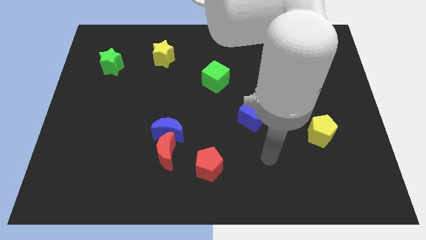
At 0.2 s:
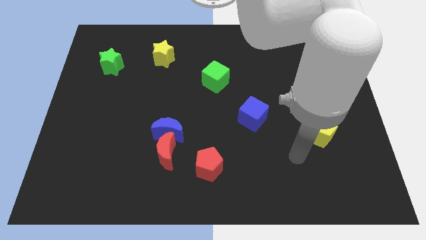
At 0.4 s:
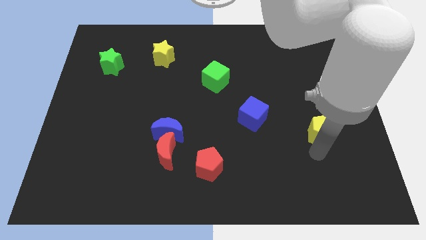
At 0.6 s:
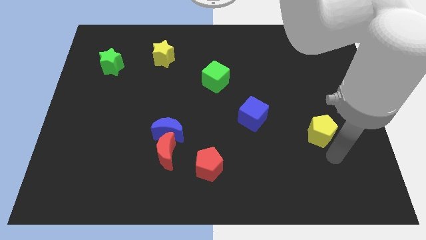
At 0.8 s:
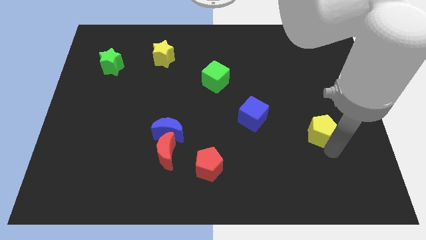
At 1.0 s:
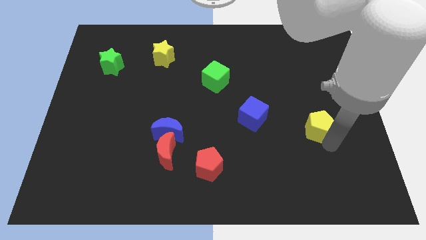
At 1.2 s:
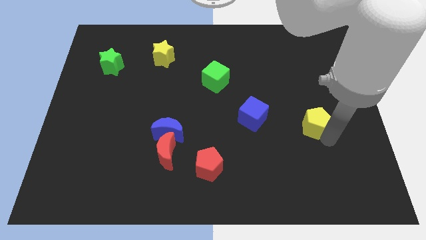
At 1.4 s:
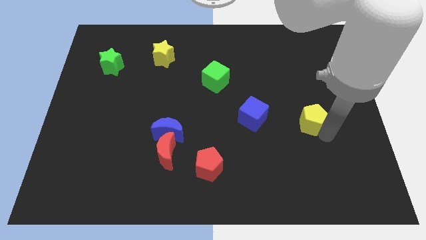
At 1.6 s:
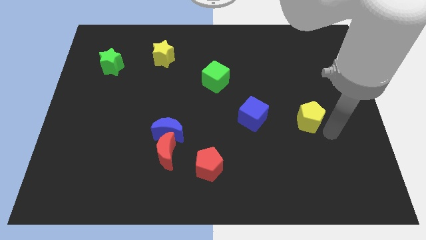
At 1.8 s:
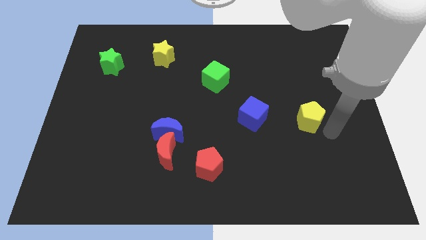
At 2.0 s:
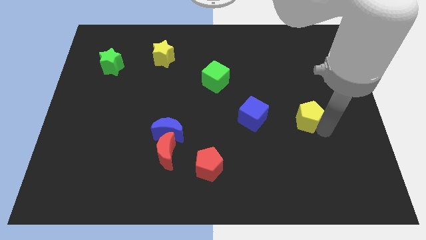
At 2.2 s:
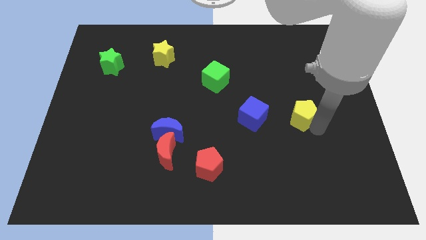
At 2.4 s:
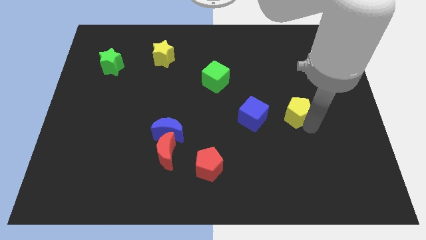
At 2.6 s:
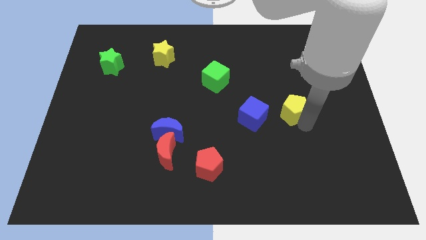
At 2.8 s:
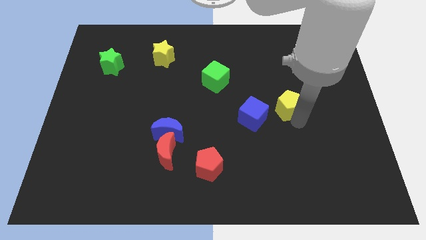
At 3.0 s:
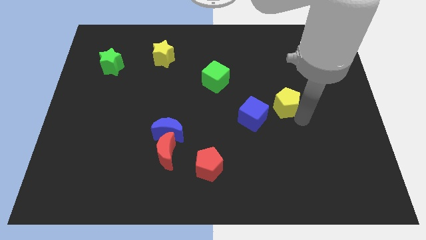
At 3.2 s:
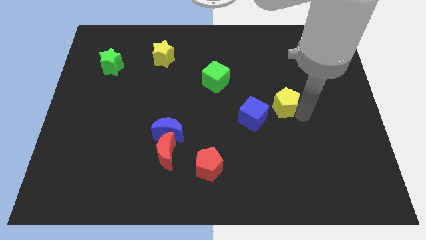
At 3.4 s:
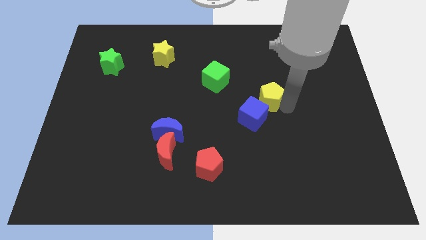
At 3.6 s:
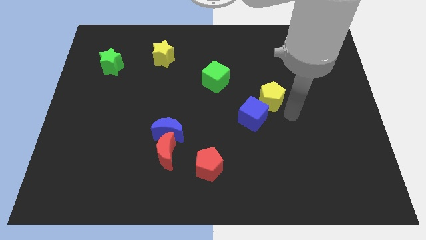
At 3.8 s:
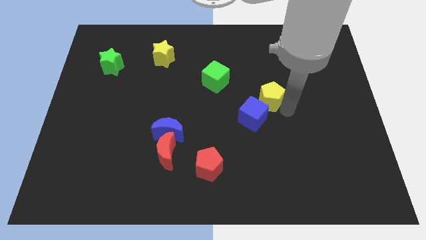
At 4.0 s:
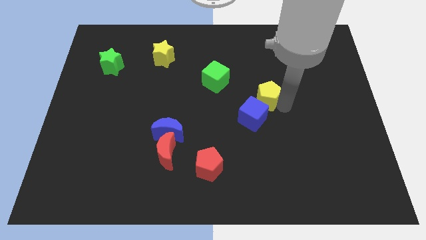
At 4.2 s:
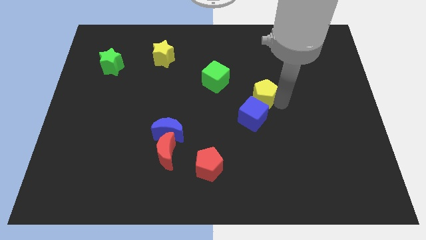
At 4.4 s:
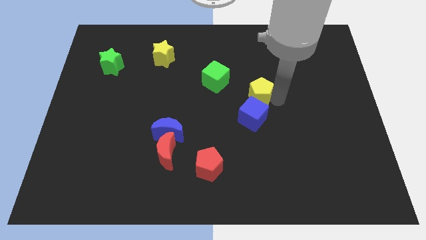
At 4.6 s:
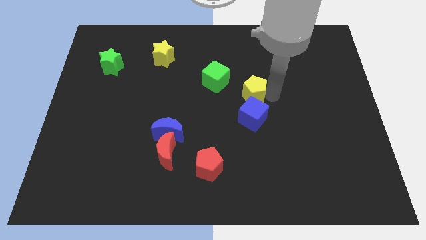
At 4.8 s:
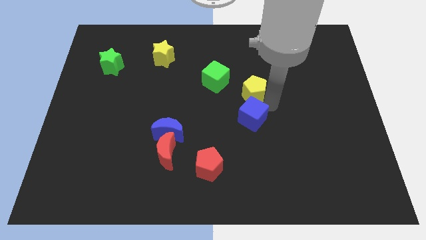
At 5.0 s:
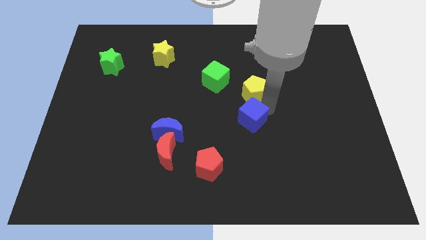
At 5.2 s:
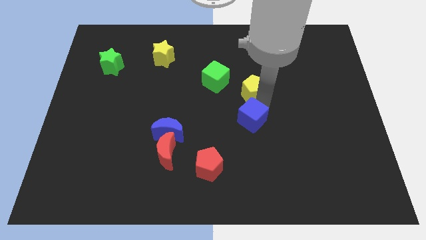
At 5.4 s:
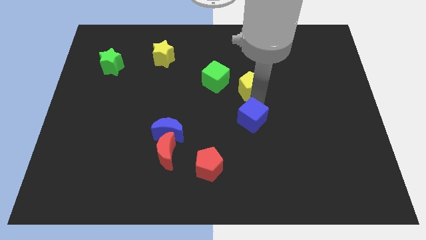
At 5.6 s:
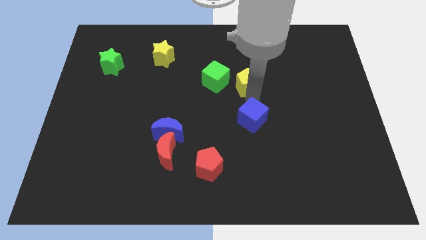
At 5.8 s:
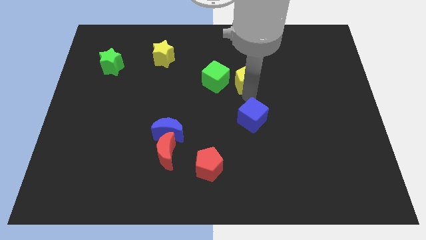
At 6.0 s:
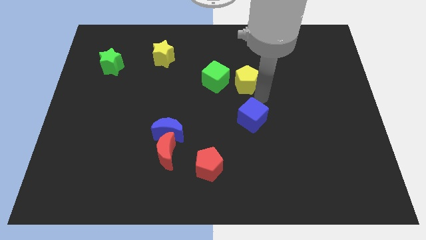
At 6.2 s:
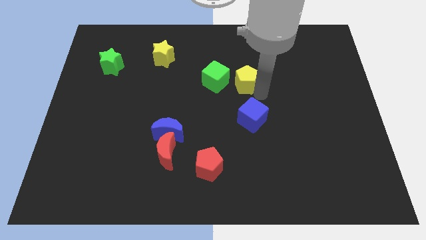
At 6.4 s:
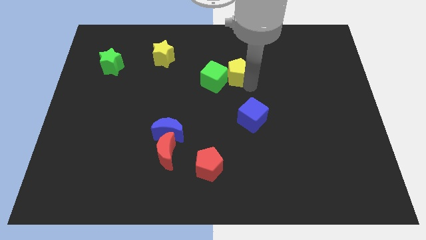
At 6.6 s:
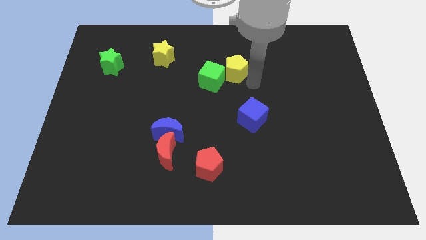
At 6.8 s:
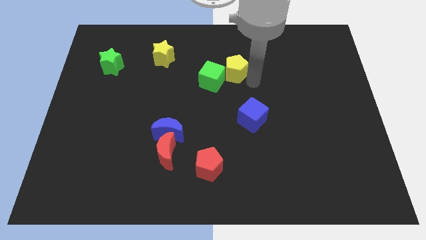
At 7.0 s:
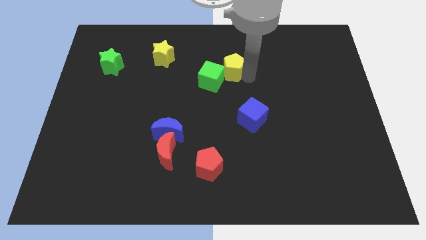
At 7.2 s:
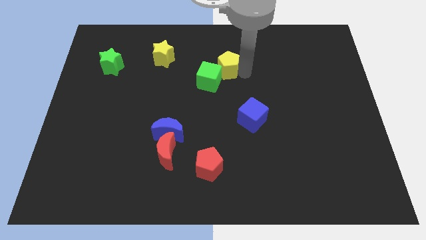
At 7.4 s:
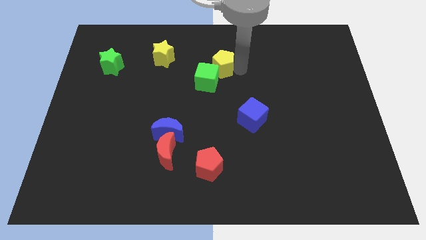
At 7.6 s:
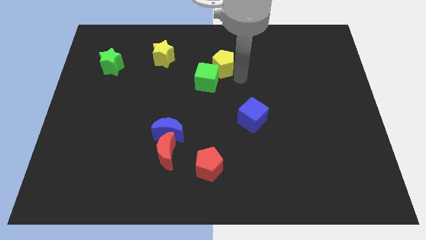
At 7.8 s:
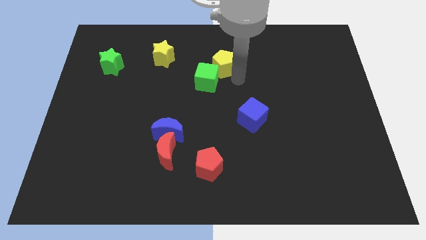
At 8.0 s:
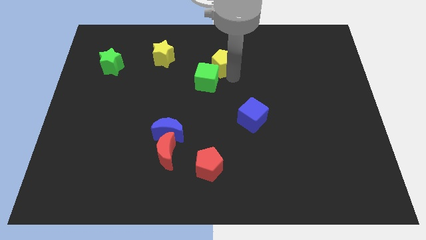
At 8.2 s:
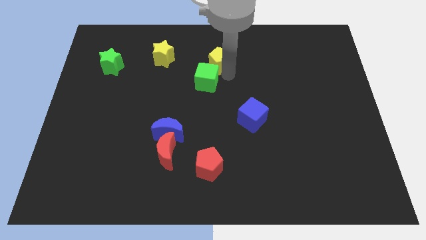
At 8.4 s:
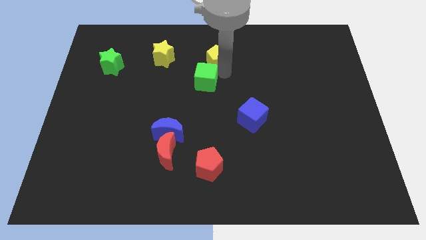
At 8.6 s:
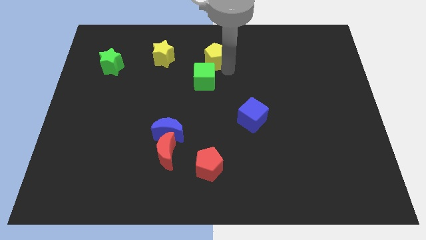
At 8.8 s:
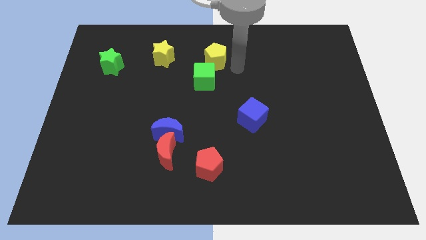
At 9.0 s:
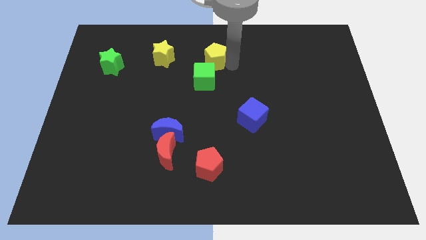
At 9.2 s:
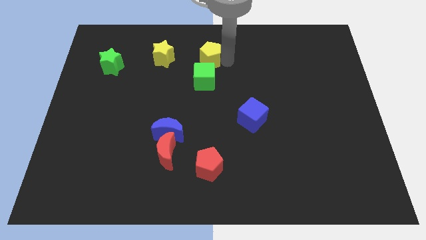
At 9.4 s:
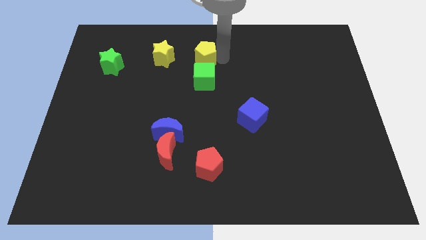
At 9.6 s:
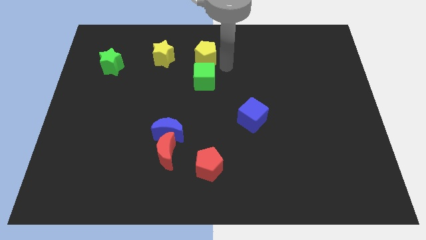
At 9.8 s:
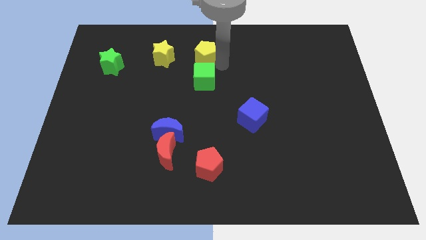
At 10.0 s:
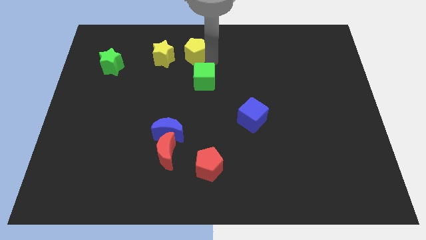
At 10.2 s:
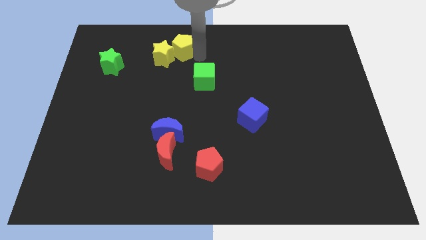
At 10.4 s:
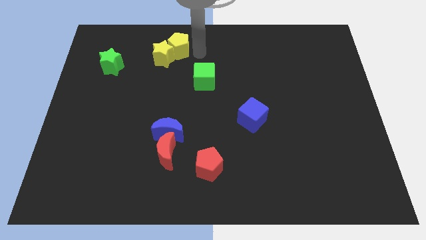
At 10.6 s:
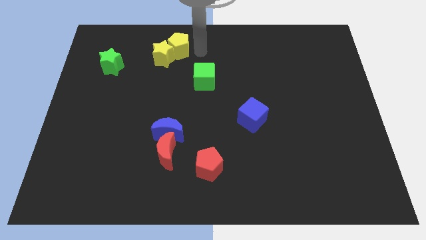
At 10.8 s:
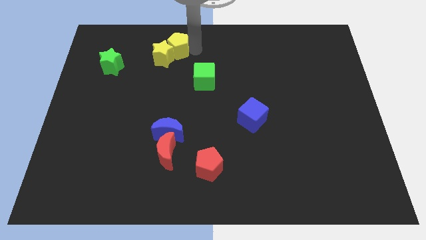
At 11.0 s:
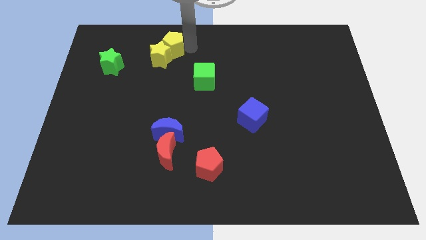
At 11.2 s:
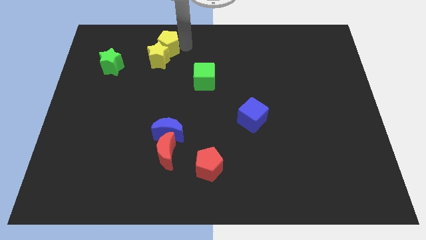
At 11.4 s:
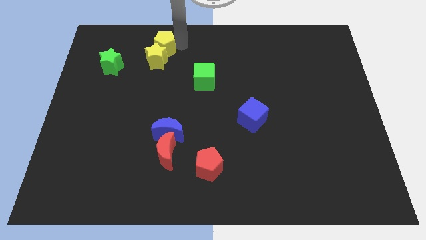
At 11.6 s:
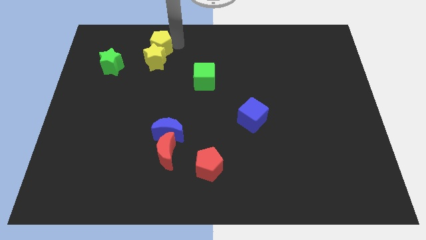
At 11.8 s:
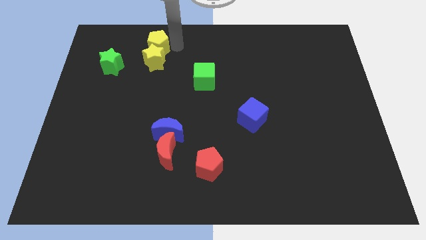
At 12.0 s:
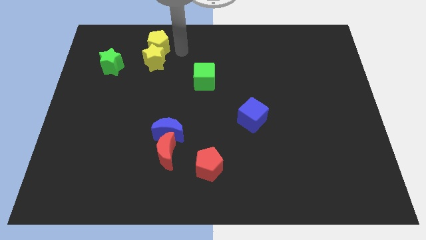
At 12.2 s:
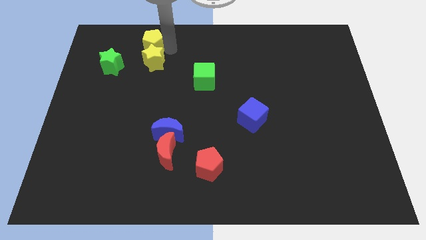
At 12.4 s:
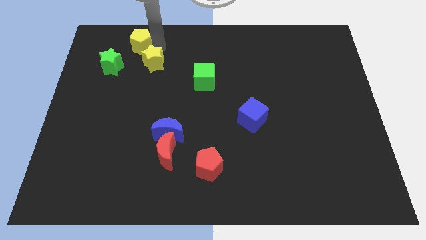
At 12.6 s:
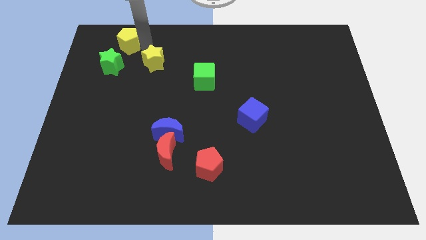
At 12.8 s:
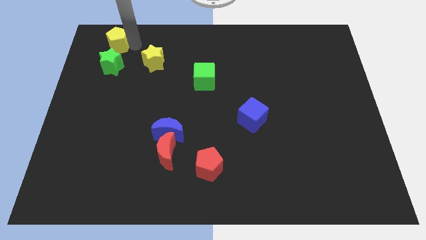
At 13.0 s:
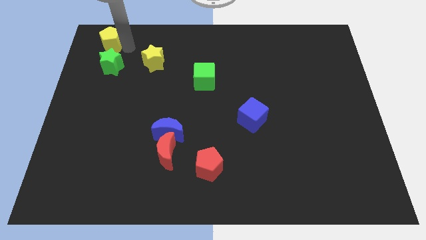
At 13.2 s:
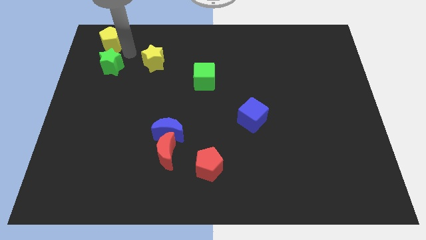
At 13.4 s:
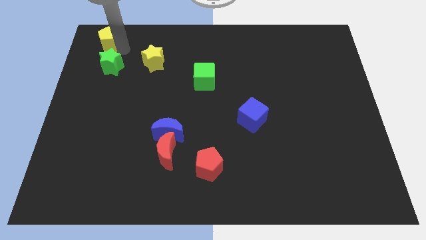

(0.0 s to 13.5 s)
push the yellow pentagon to the top left of the board
